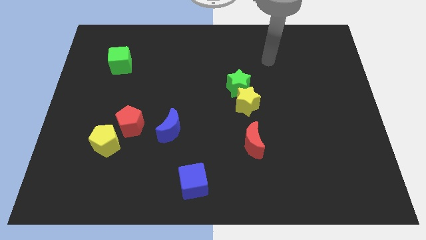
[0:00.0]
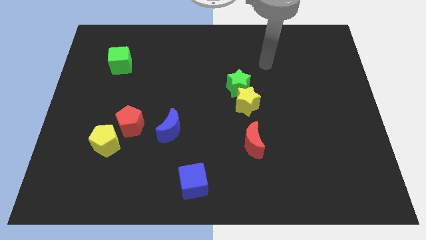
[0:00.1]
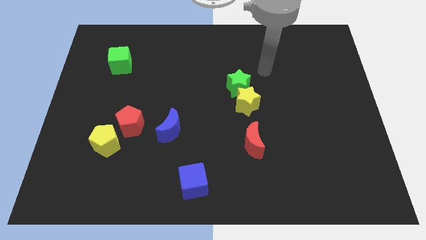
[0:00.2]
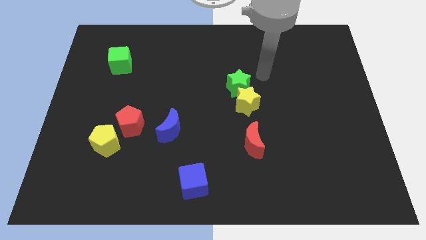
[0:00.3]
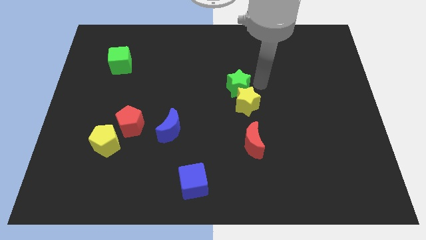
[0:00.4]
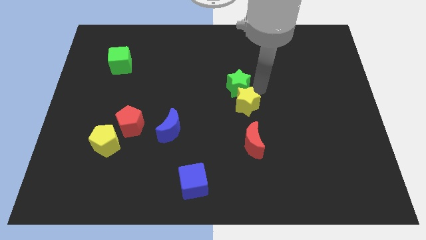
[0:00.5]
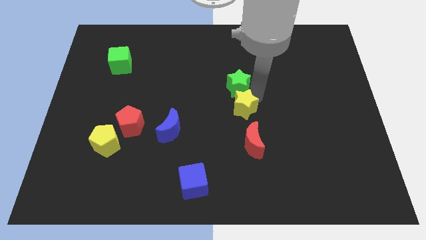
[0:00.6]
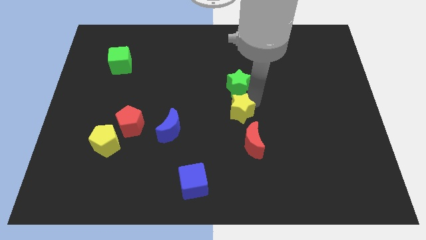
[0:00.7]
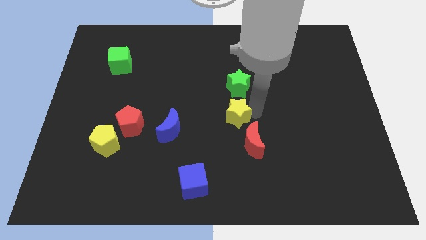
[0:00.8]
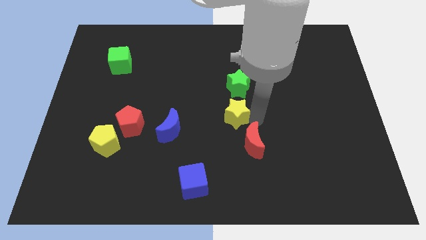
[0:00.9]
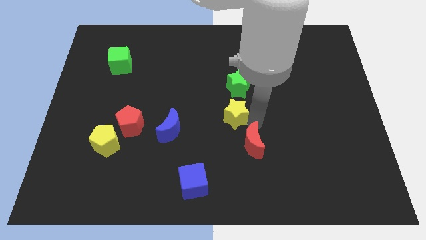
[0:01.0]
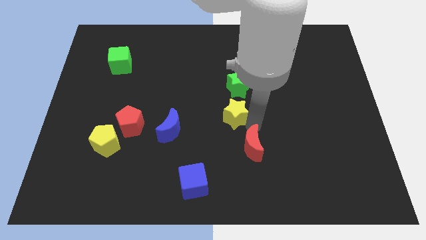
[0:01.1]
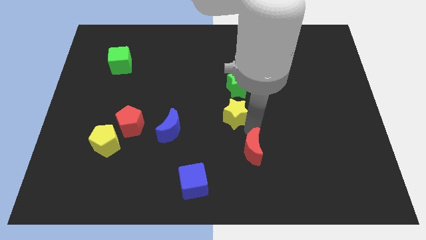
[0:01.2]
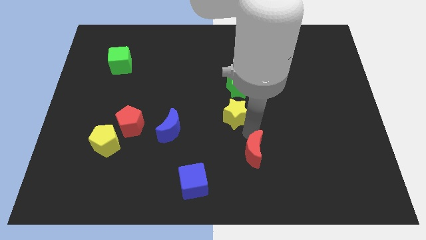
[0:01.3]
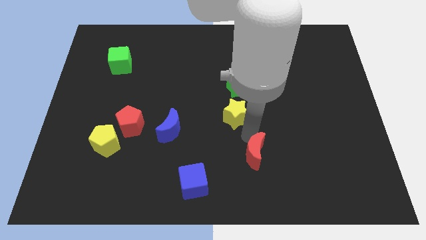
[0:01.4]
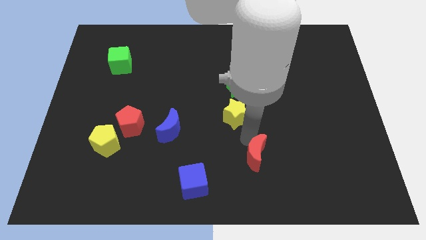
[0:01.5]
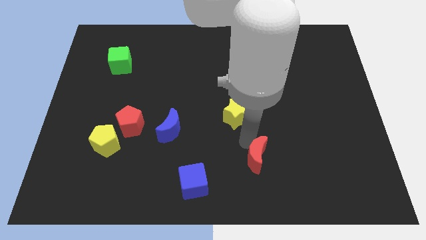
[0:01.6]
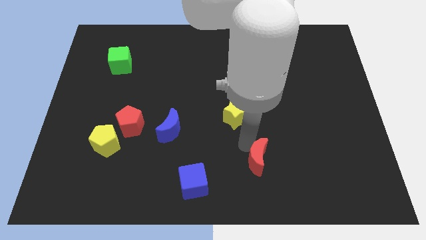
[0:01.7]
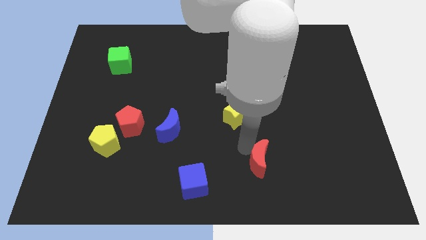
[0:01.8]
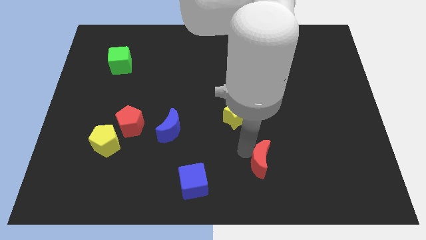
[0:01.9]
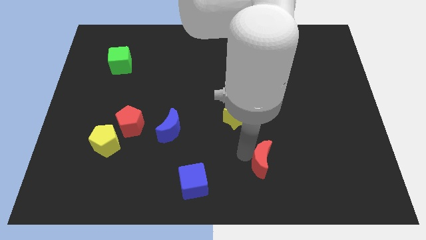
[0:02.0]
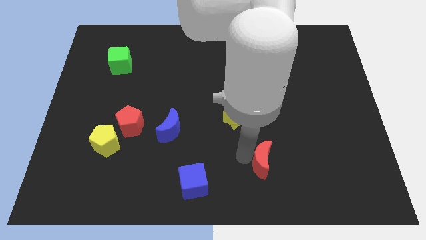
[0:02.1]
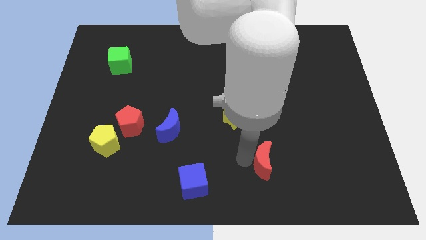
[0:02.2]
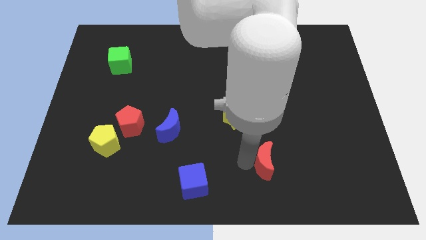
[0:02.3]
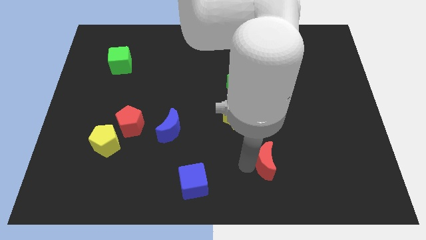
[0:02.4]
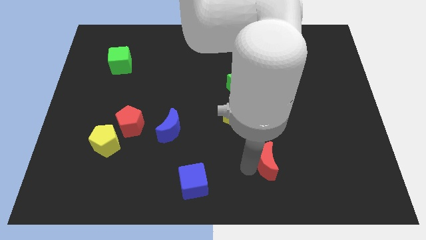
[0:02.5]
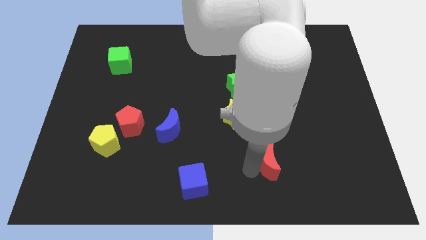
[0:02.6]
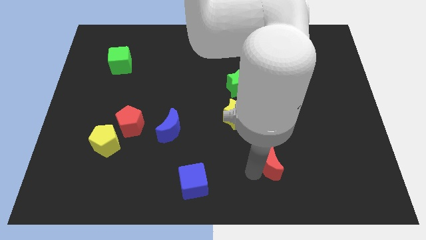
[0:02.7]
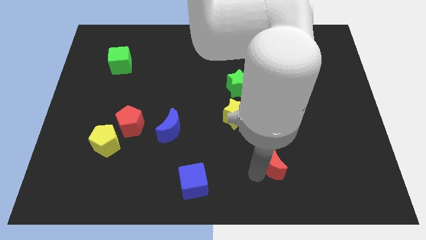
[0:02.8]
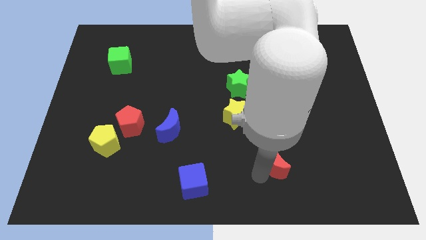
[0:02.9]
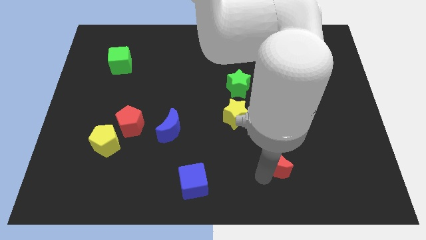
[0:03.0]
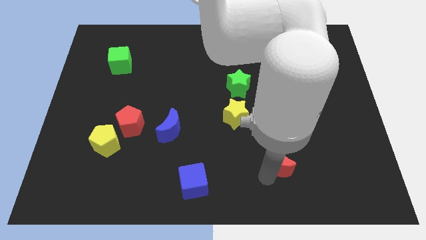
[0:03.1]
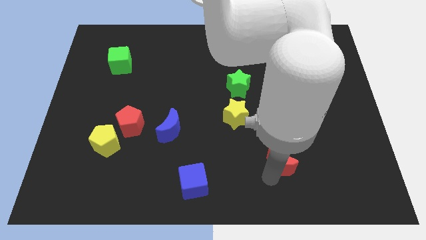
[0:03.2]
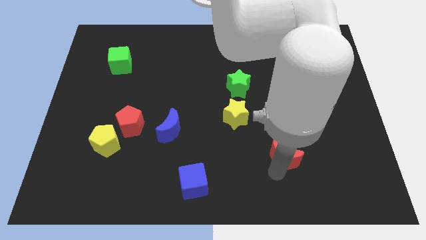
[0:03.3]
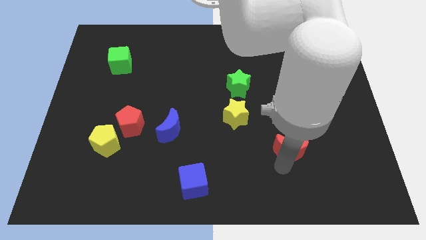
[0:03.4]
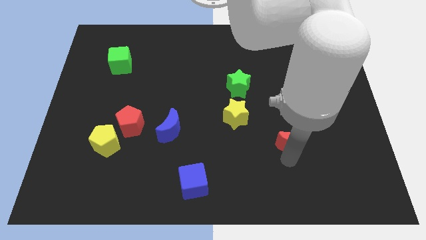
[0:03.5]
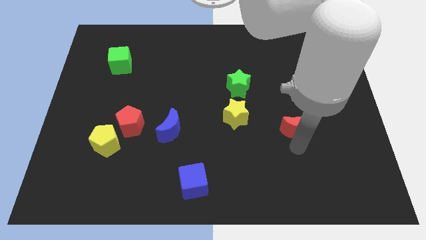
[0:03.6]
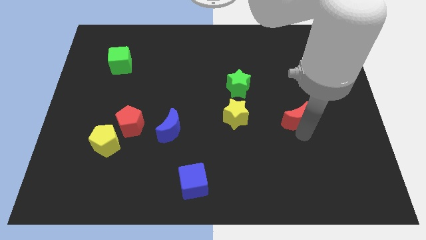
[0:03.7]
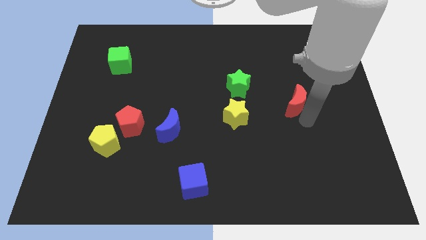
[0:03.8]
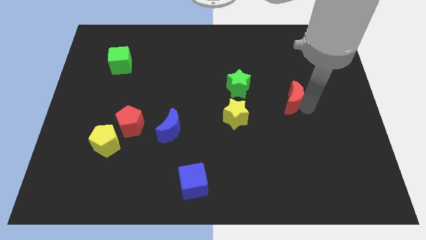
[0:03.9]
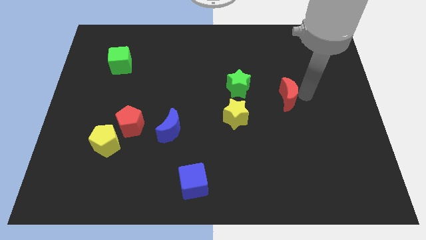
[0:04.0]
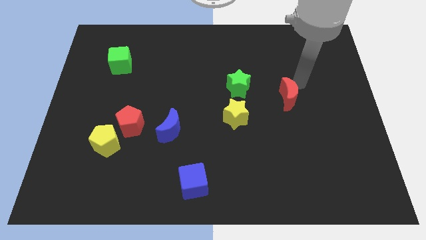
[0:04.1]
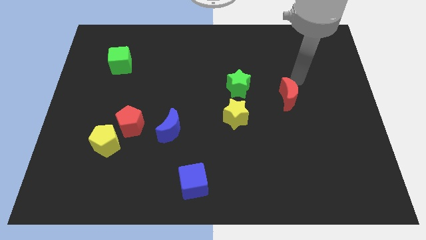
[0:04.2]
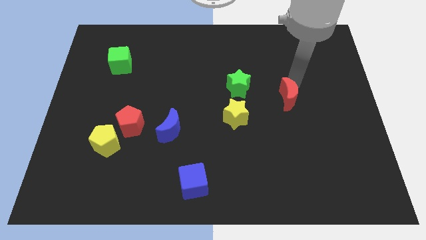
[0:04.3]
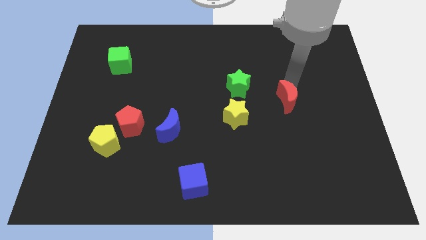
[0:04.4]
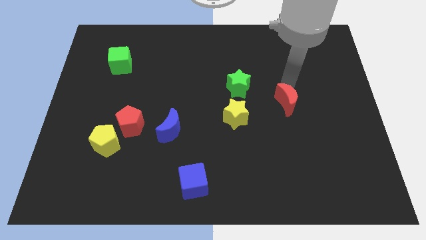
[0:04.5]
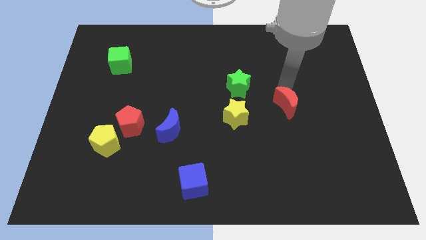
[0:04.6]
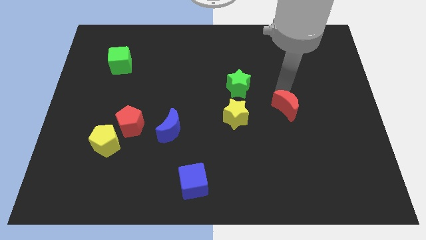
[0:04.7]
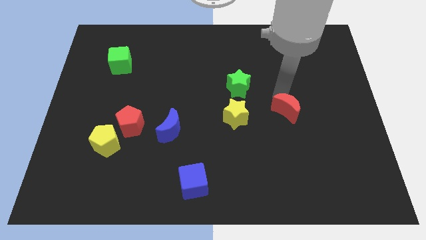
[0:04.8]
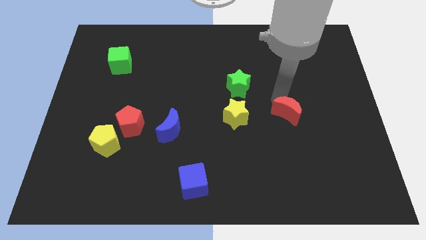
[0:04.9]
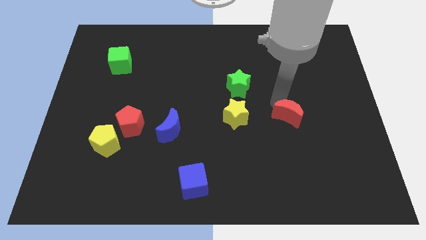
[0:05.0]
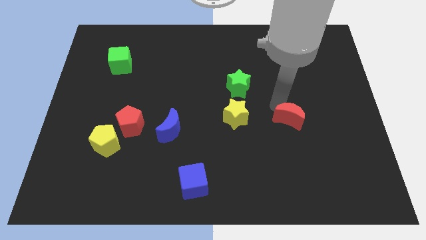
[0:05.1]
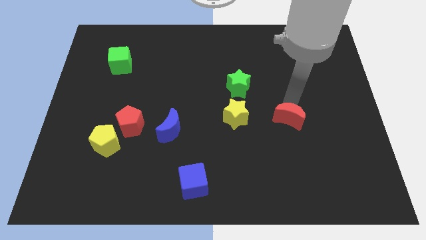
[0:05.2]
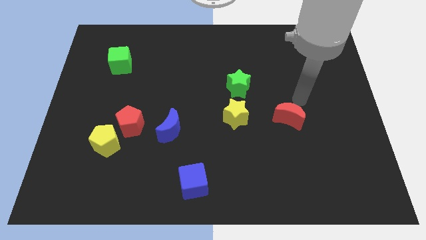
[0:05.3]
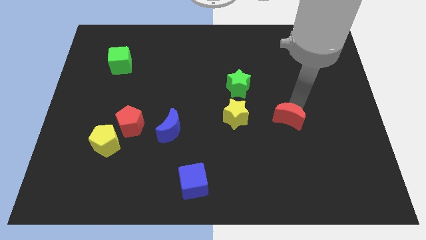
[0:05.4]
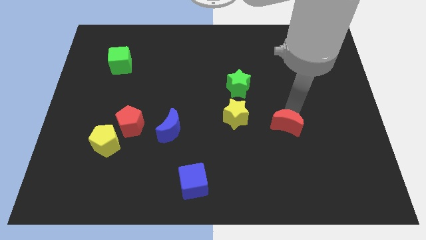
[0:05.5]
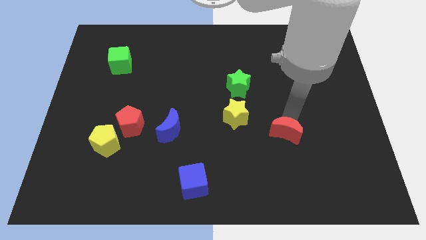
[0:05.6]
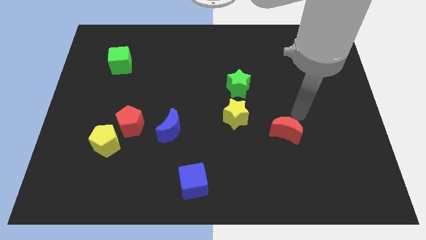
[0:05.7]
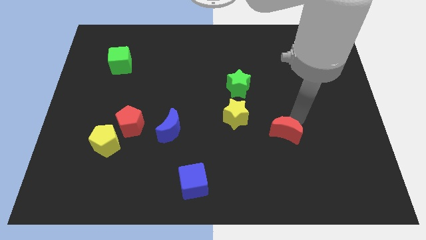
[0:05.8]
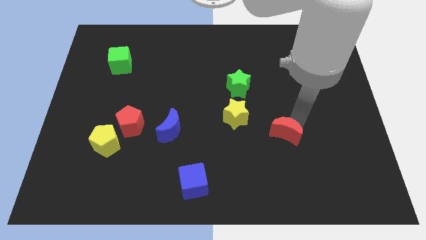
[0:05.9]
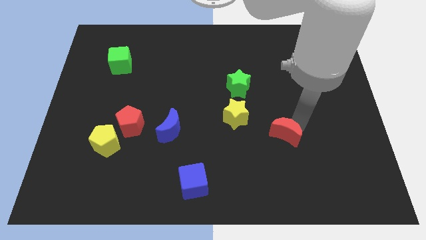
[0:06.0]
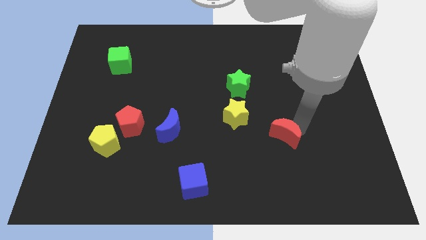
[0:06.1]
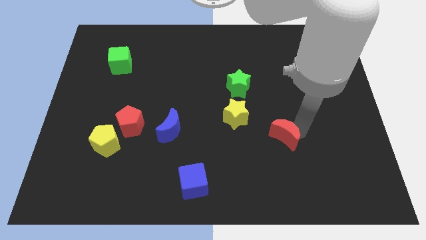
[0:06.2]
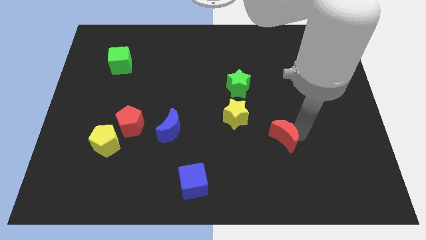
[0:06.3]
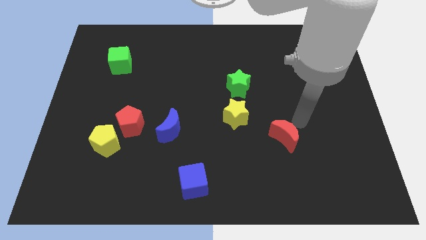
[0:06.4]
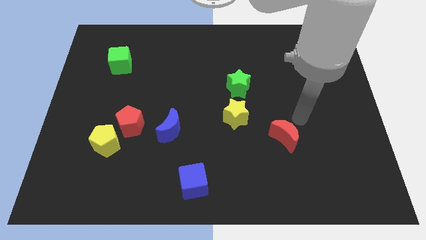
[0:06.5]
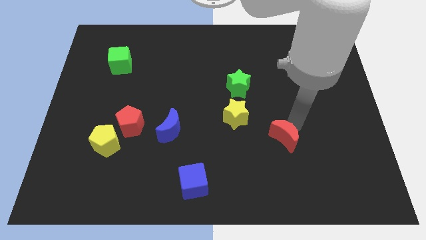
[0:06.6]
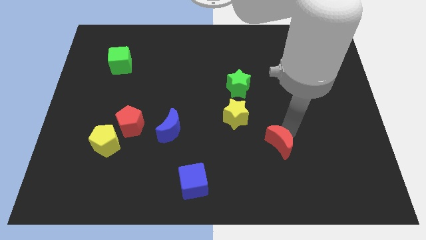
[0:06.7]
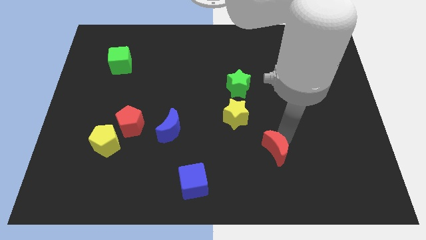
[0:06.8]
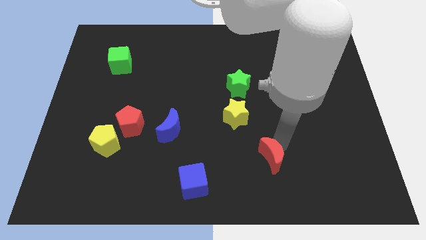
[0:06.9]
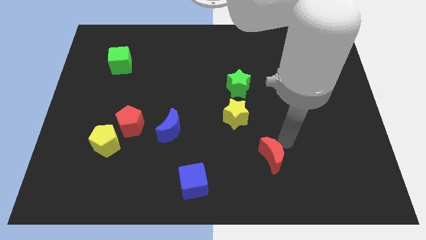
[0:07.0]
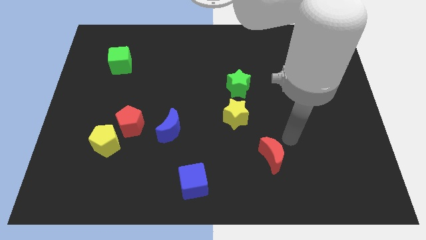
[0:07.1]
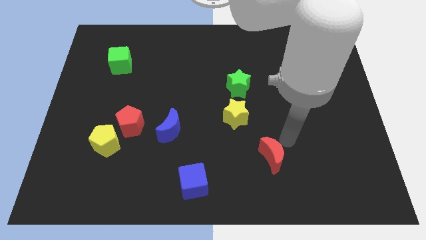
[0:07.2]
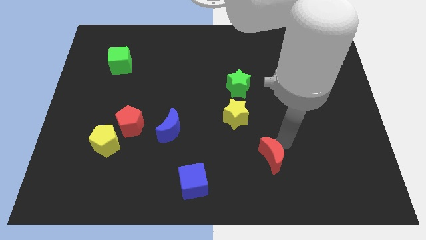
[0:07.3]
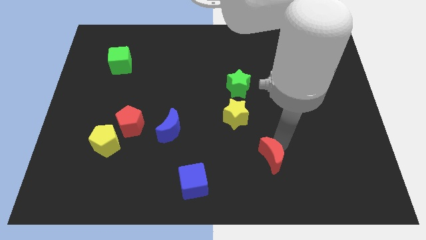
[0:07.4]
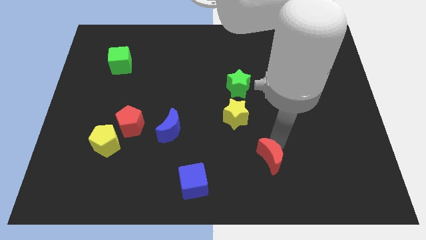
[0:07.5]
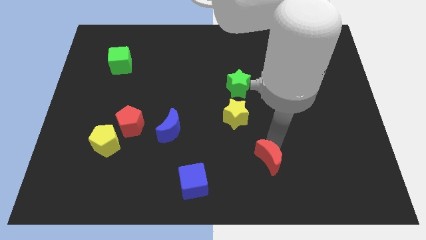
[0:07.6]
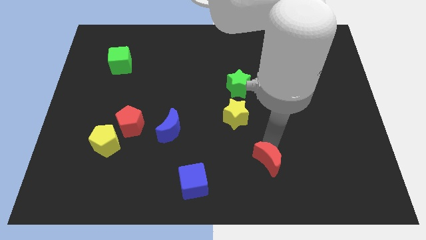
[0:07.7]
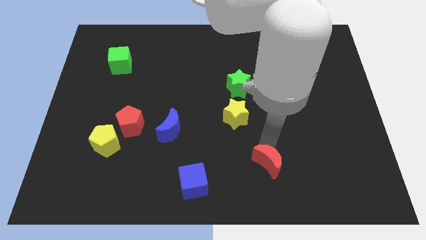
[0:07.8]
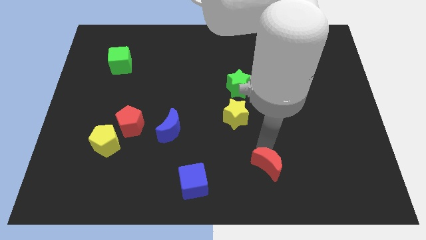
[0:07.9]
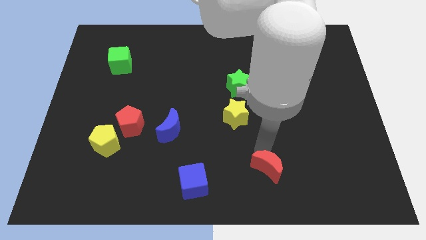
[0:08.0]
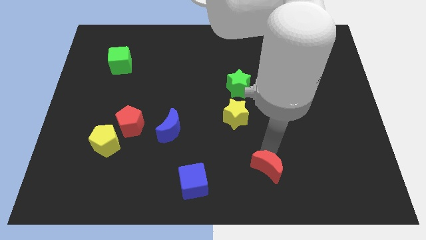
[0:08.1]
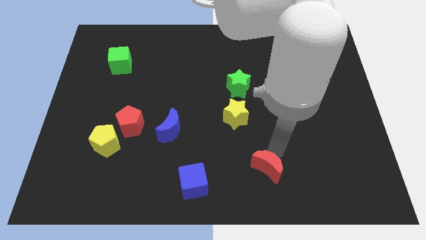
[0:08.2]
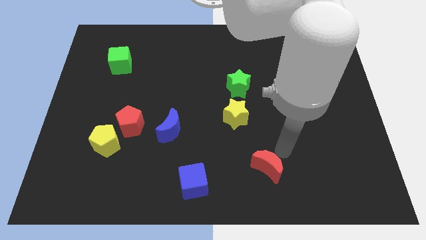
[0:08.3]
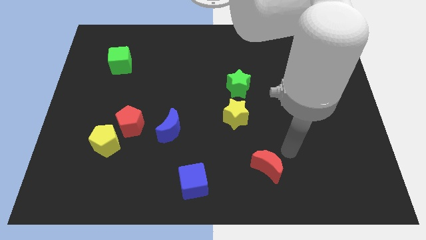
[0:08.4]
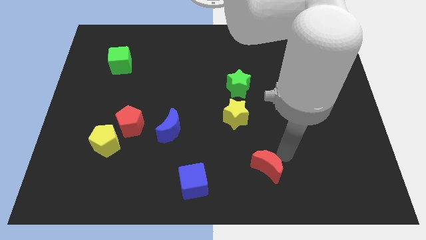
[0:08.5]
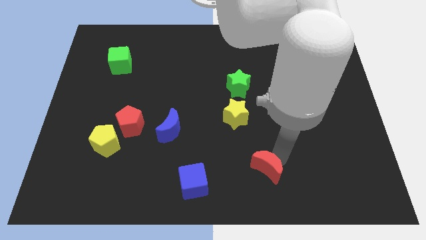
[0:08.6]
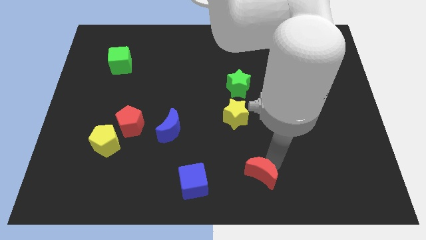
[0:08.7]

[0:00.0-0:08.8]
put the red moon right of the blue cube
